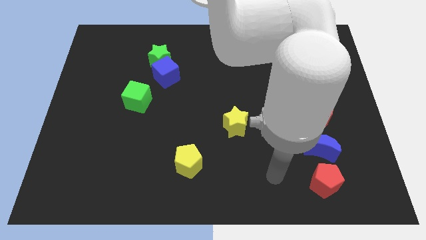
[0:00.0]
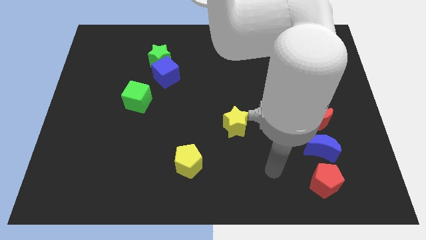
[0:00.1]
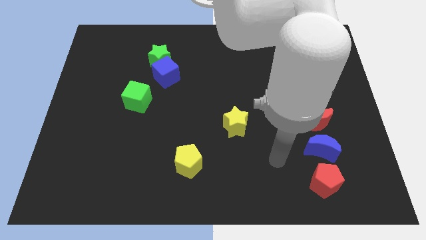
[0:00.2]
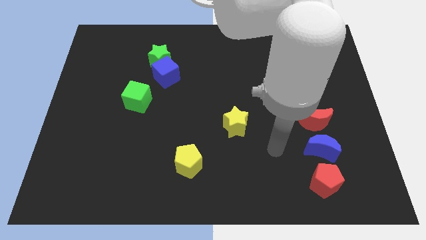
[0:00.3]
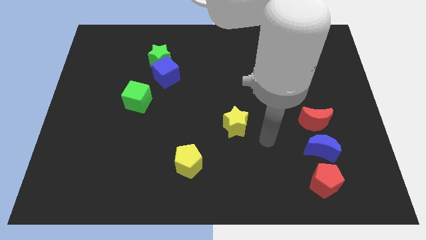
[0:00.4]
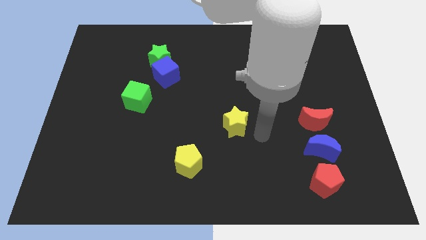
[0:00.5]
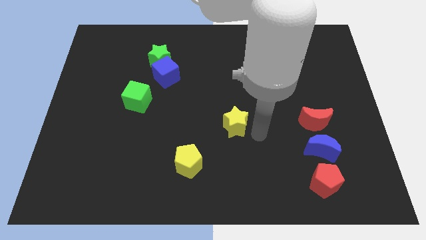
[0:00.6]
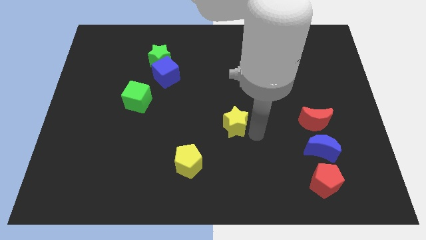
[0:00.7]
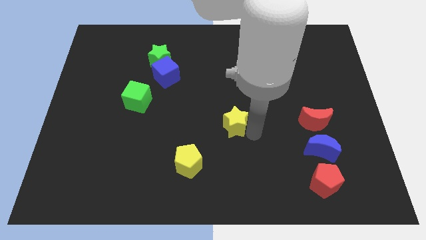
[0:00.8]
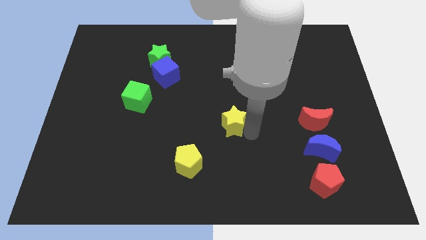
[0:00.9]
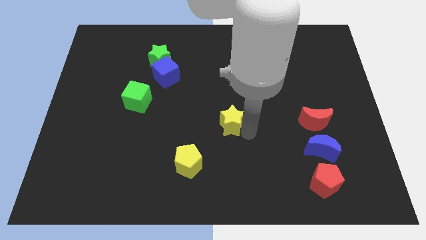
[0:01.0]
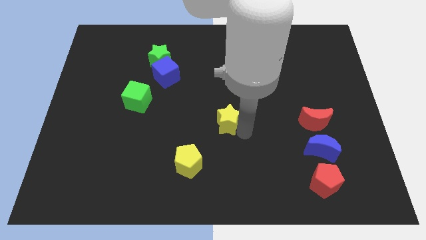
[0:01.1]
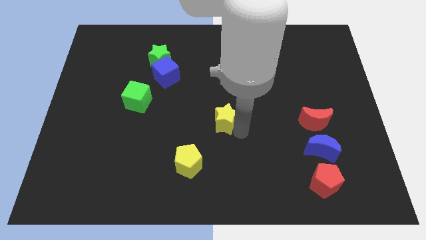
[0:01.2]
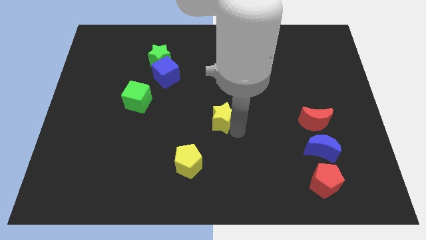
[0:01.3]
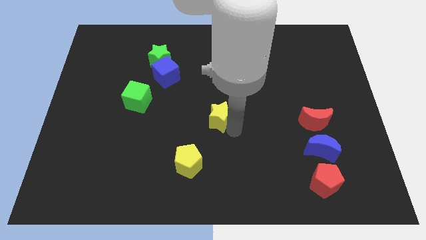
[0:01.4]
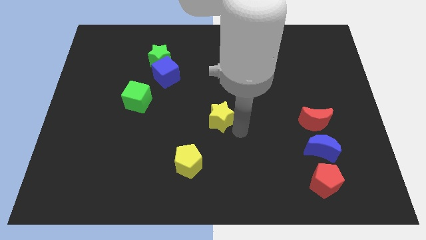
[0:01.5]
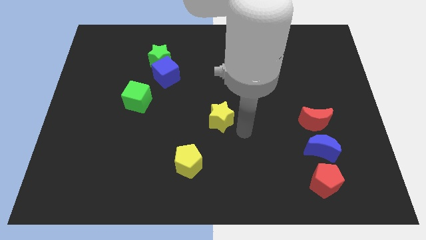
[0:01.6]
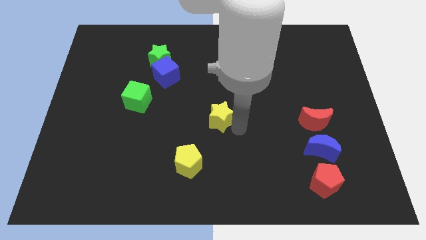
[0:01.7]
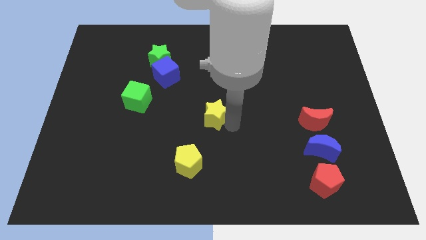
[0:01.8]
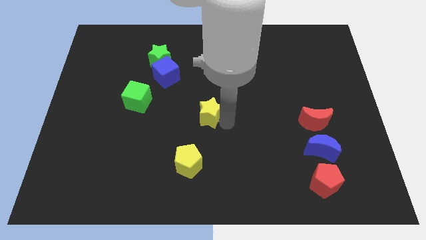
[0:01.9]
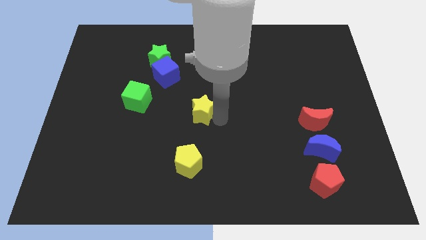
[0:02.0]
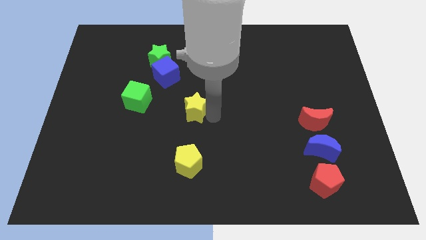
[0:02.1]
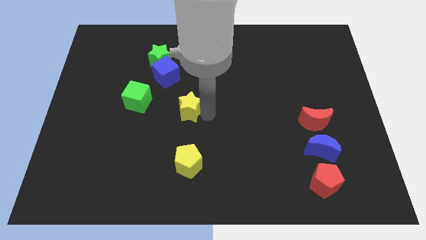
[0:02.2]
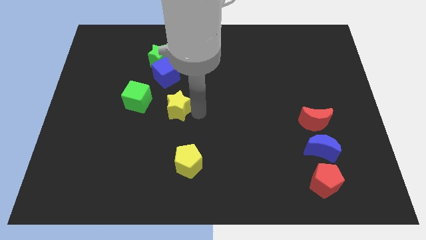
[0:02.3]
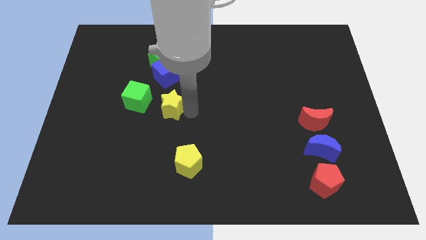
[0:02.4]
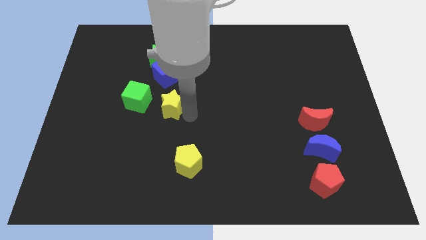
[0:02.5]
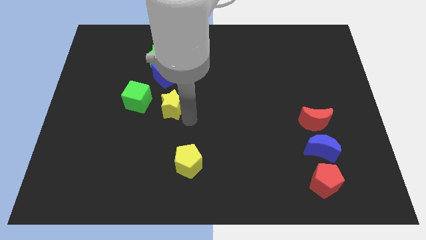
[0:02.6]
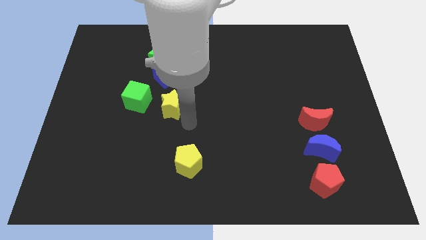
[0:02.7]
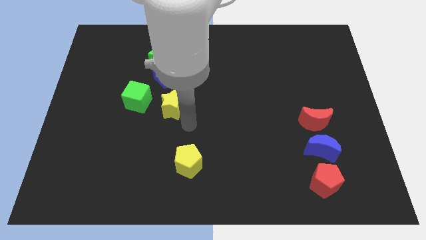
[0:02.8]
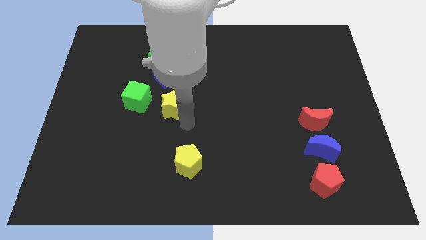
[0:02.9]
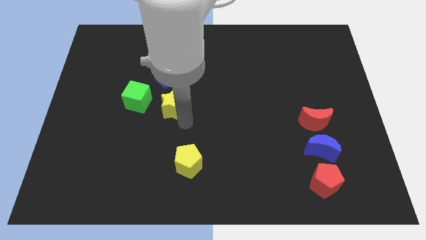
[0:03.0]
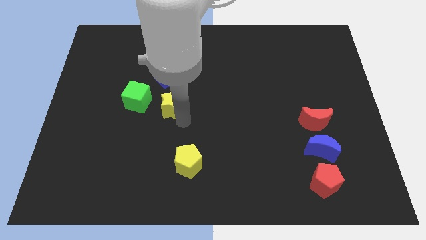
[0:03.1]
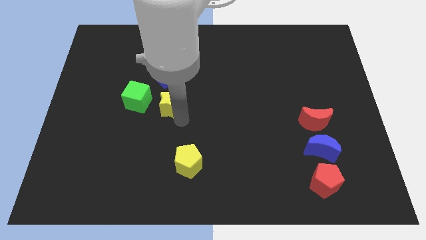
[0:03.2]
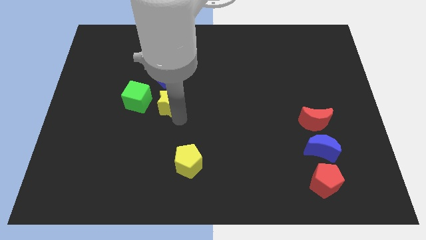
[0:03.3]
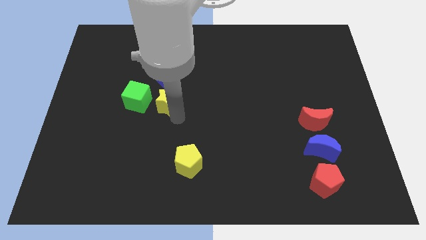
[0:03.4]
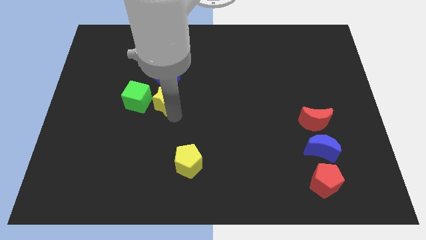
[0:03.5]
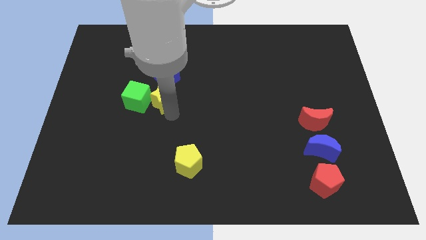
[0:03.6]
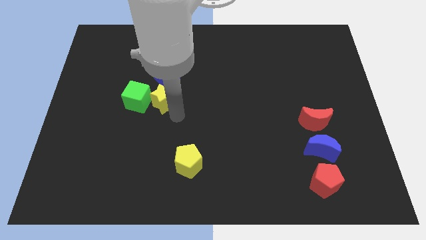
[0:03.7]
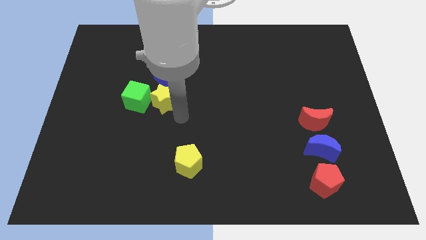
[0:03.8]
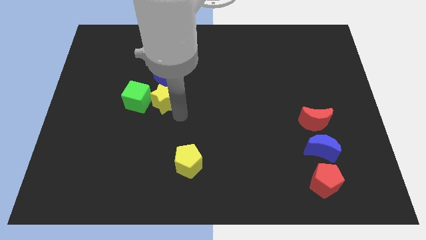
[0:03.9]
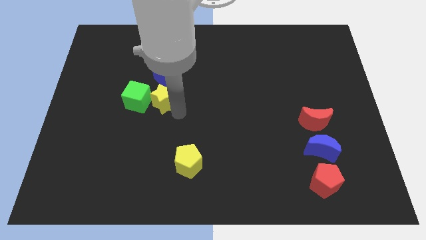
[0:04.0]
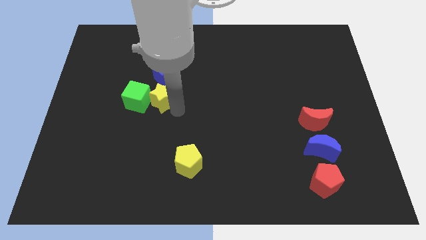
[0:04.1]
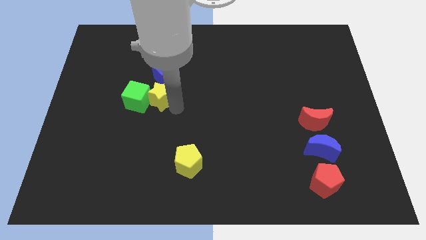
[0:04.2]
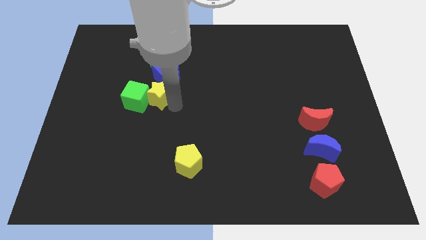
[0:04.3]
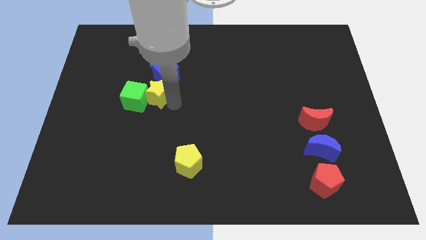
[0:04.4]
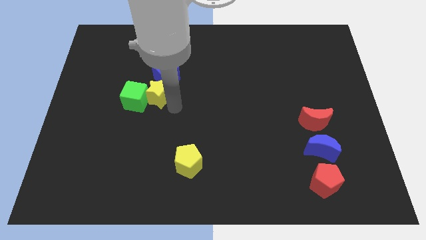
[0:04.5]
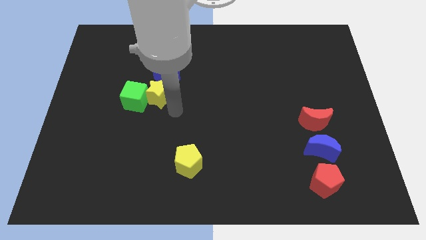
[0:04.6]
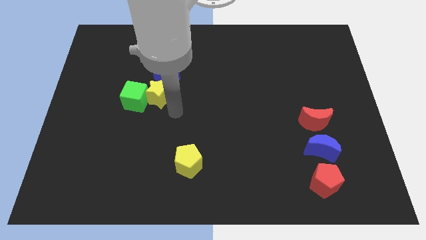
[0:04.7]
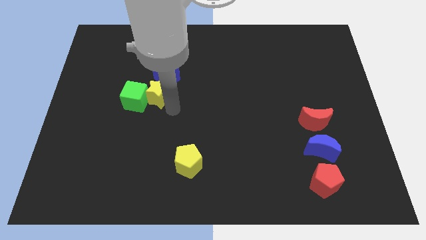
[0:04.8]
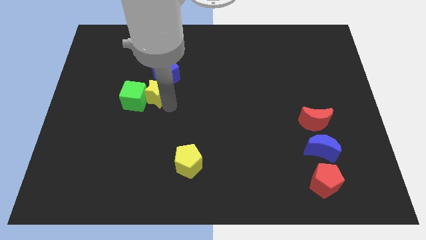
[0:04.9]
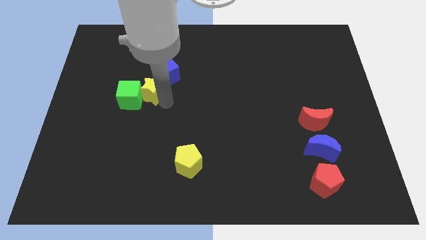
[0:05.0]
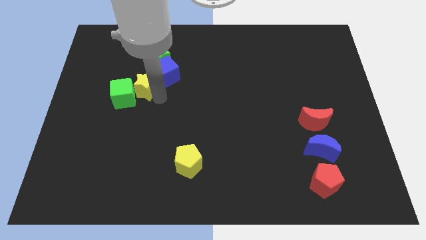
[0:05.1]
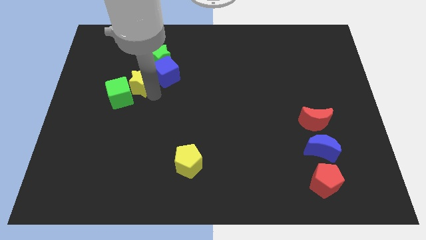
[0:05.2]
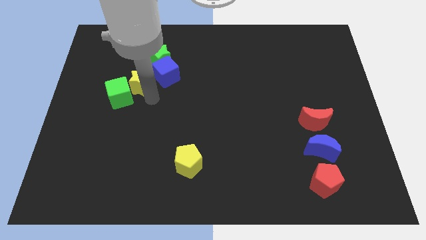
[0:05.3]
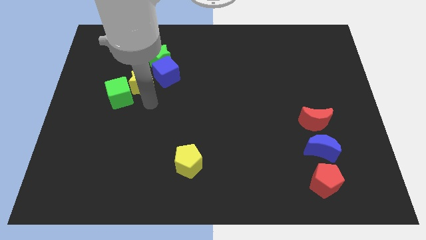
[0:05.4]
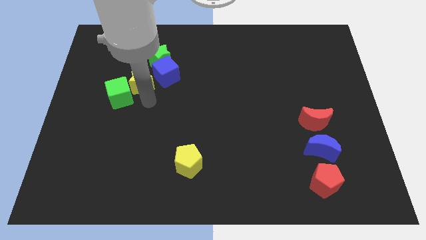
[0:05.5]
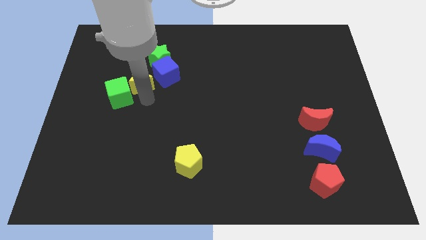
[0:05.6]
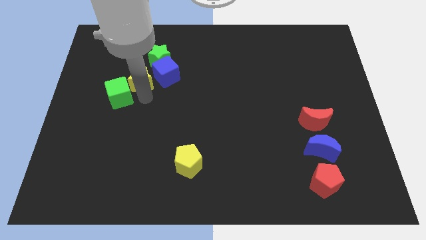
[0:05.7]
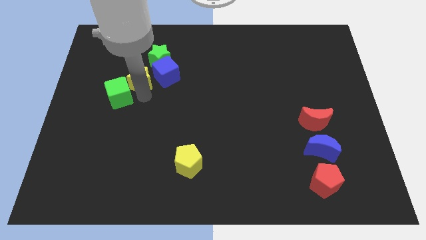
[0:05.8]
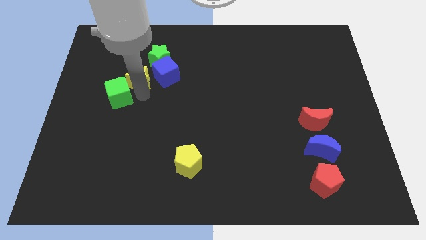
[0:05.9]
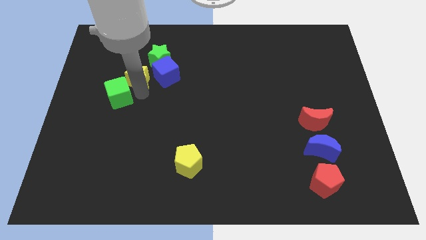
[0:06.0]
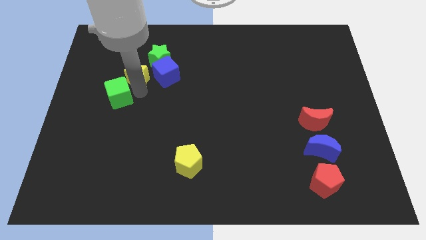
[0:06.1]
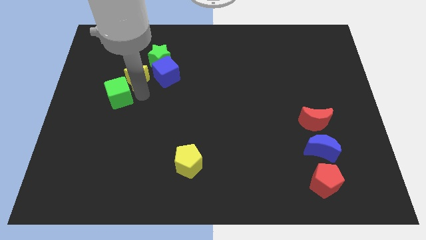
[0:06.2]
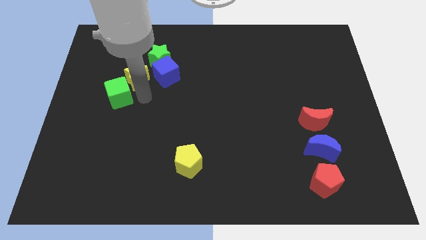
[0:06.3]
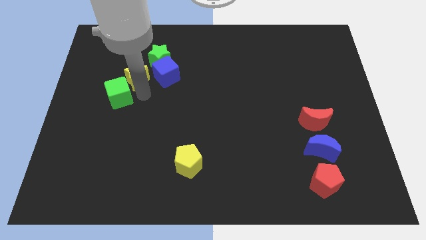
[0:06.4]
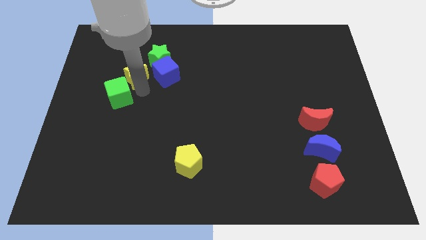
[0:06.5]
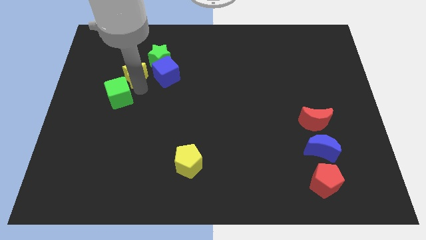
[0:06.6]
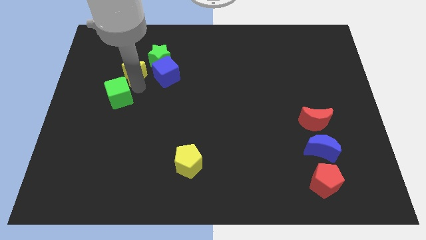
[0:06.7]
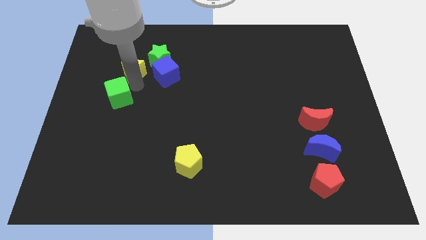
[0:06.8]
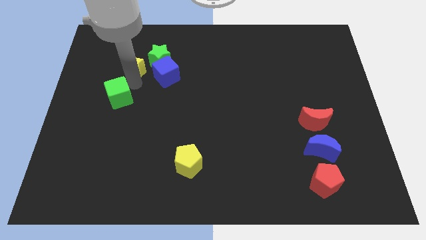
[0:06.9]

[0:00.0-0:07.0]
slide the yellow star to the top left of the blue cube

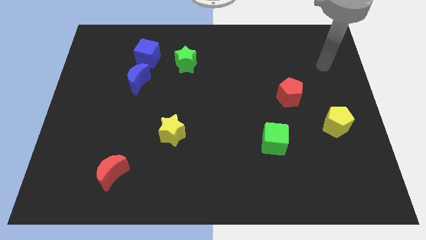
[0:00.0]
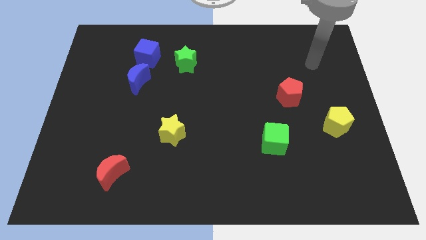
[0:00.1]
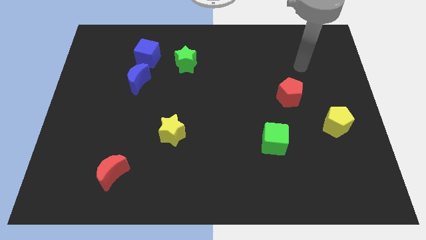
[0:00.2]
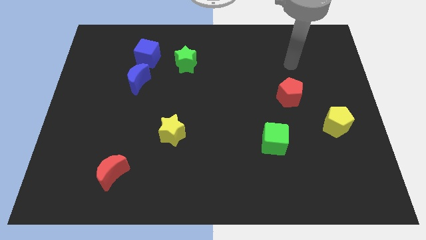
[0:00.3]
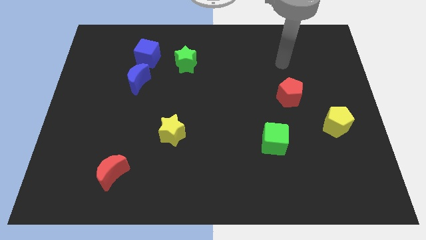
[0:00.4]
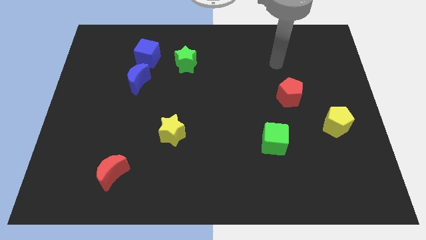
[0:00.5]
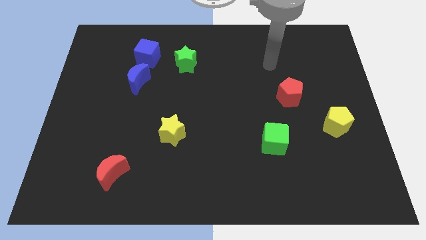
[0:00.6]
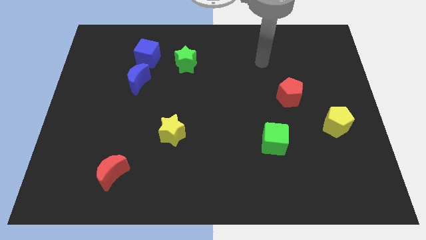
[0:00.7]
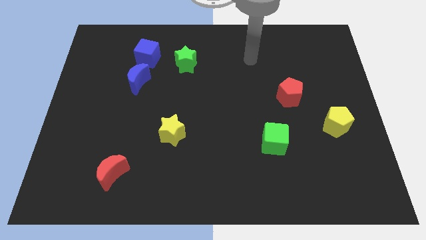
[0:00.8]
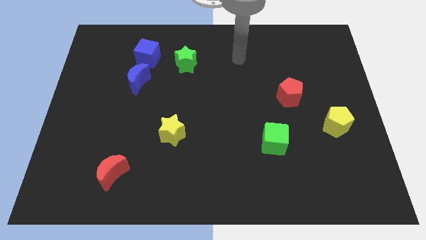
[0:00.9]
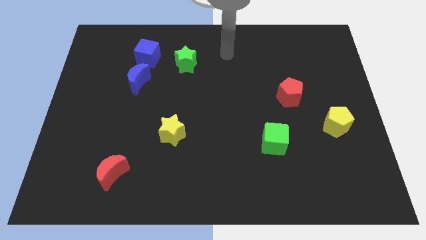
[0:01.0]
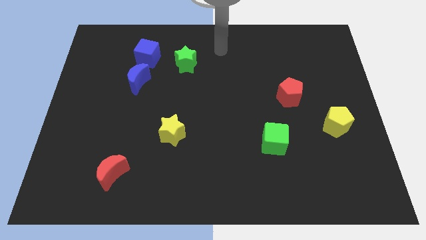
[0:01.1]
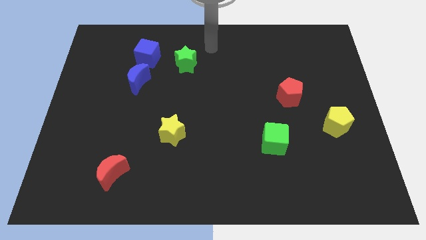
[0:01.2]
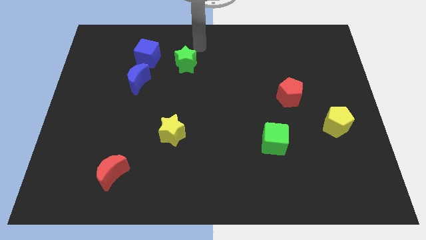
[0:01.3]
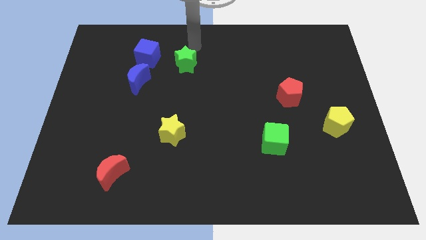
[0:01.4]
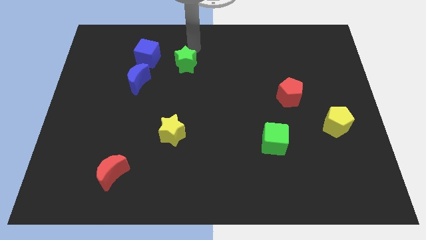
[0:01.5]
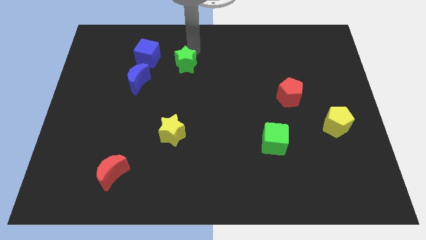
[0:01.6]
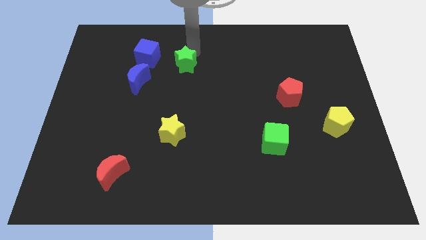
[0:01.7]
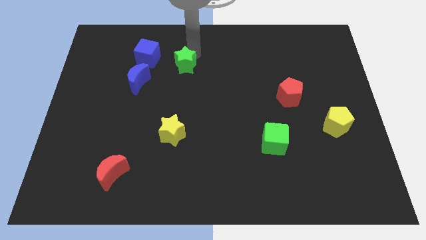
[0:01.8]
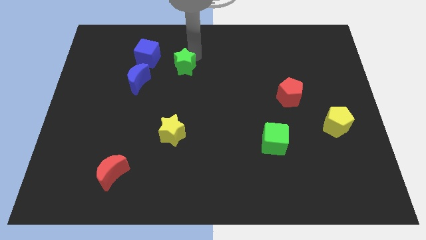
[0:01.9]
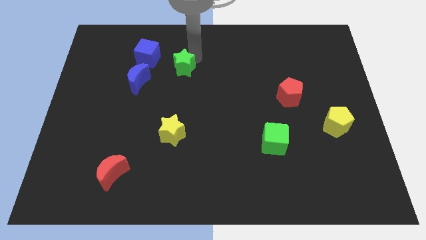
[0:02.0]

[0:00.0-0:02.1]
slide the green star right of the blue moon
